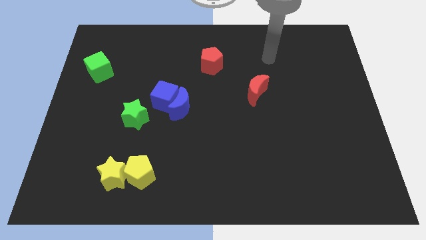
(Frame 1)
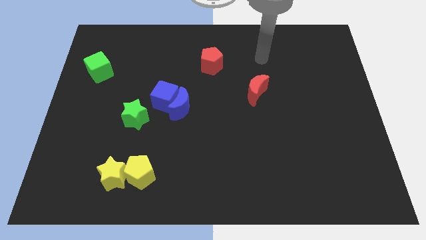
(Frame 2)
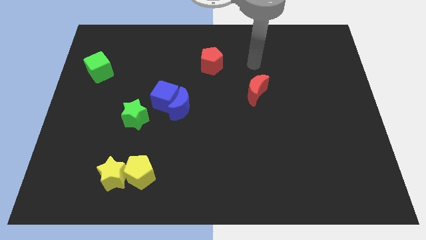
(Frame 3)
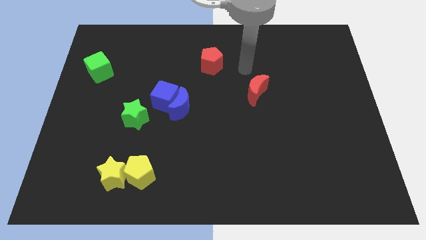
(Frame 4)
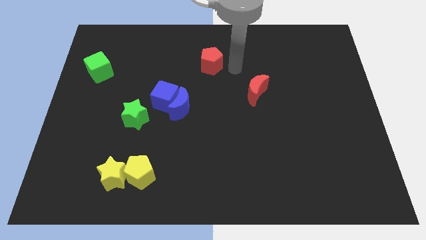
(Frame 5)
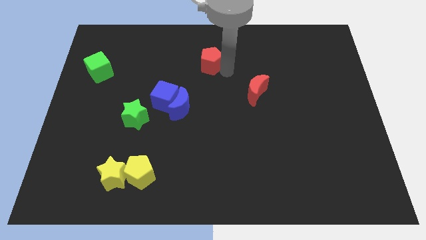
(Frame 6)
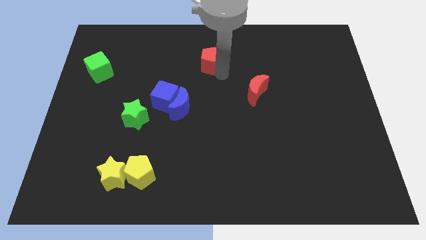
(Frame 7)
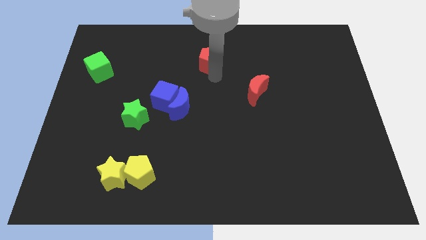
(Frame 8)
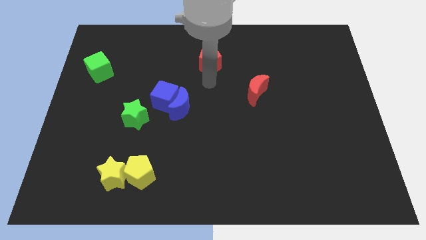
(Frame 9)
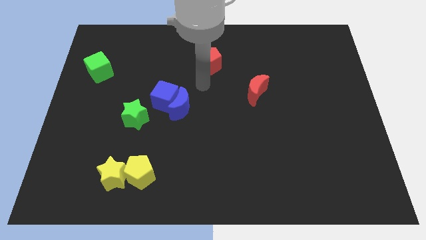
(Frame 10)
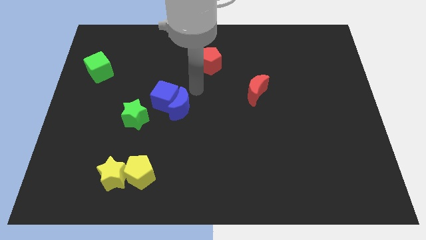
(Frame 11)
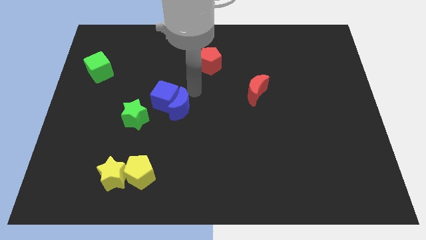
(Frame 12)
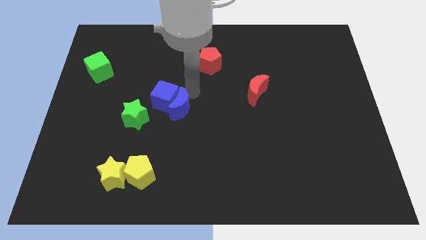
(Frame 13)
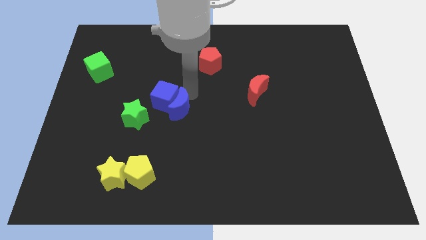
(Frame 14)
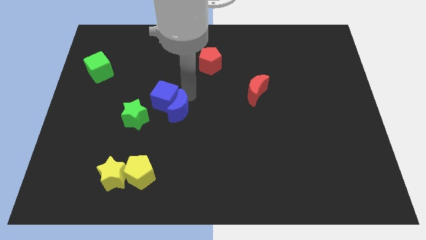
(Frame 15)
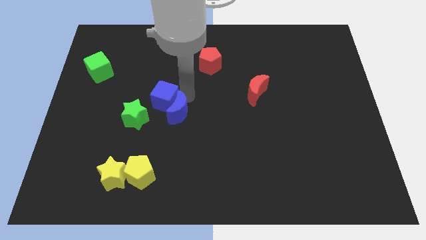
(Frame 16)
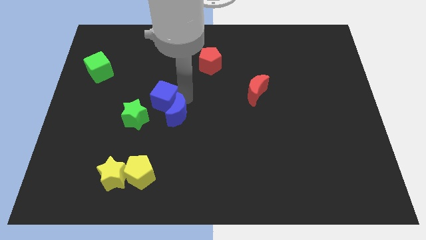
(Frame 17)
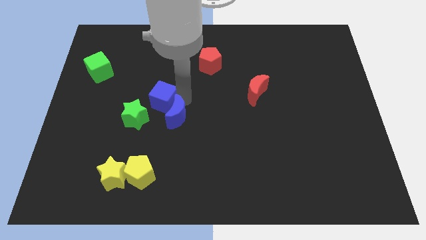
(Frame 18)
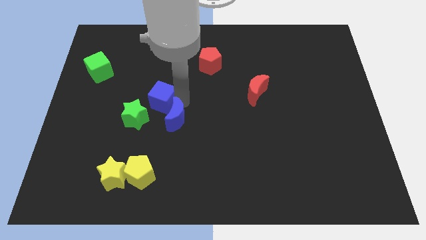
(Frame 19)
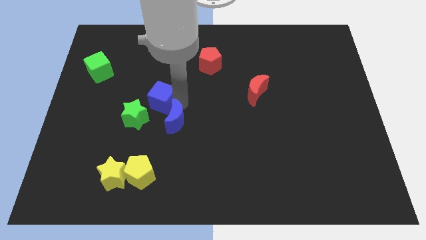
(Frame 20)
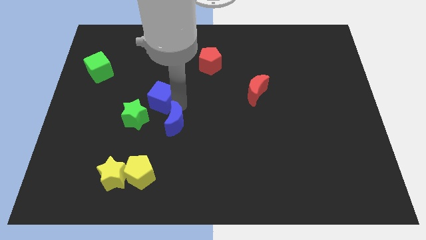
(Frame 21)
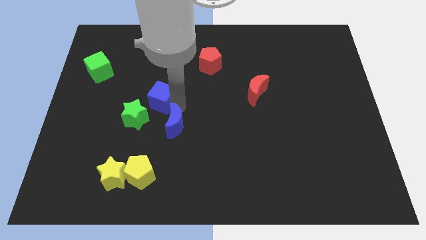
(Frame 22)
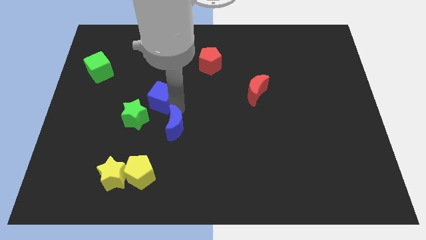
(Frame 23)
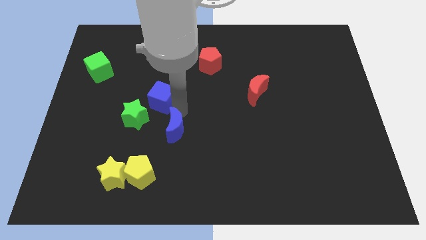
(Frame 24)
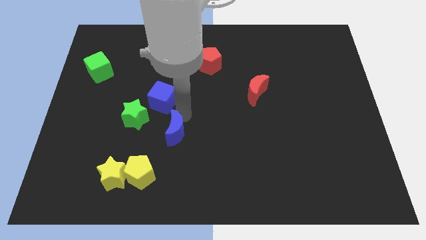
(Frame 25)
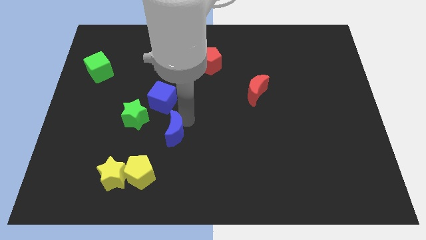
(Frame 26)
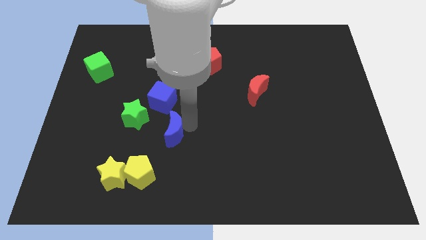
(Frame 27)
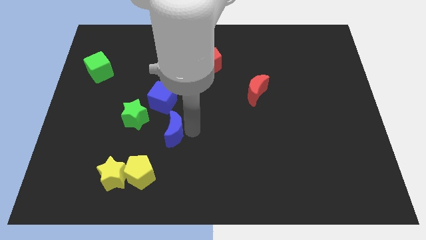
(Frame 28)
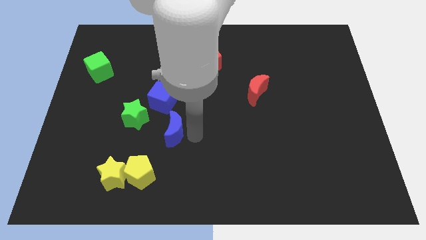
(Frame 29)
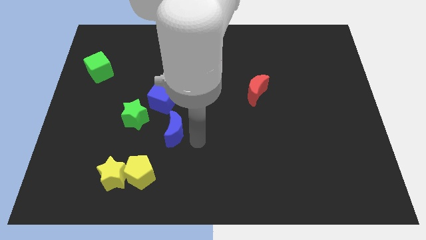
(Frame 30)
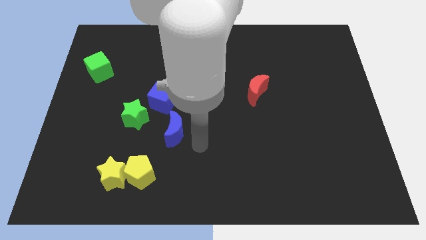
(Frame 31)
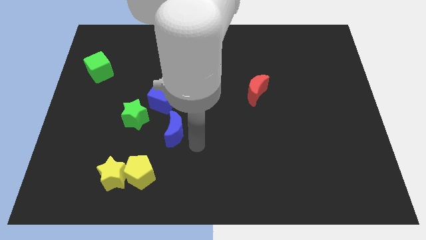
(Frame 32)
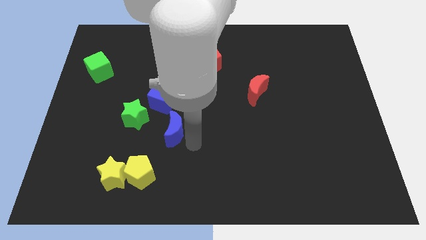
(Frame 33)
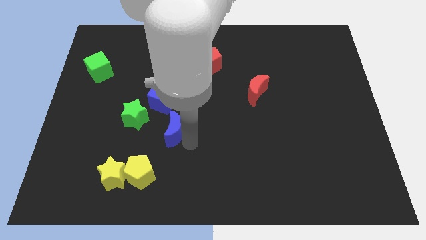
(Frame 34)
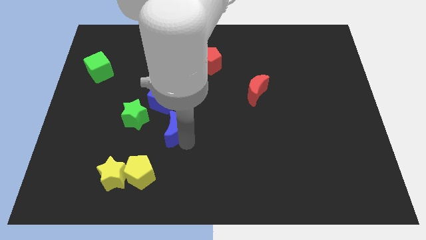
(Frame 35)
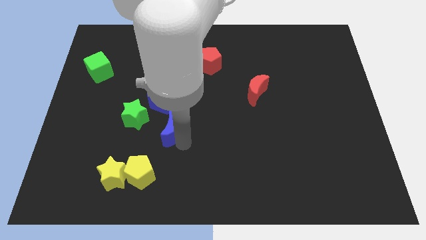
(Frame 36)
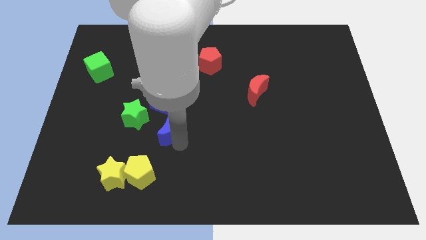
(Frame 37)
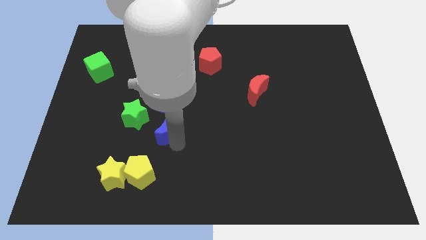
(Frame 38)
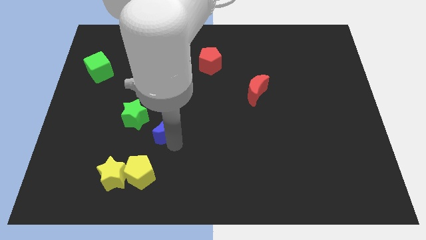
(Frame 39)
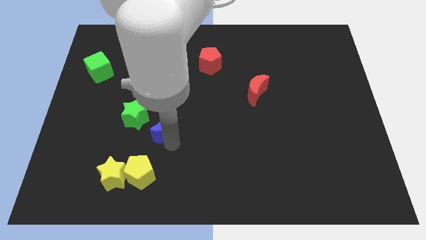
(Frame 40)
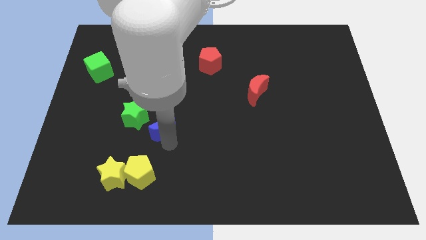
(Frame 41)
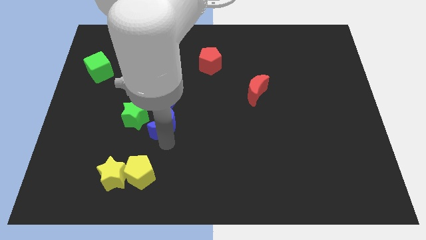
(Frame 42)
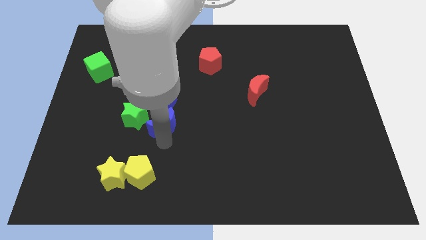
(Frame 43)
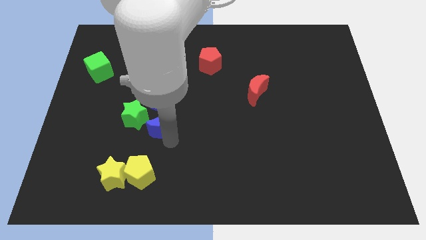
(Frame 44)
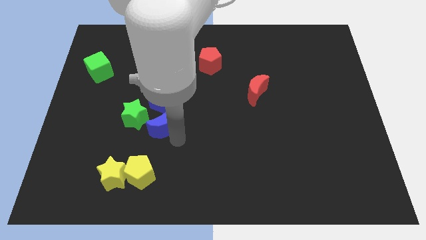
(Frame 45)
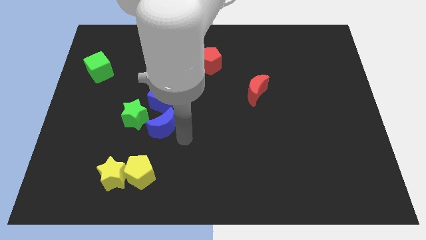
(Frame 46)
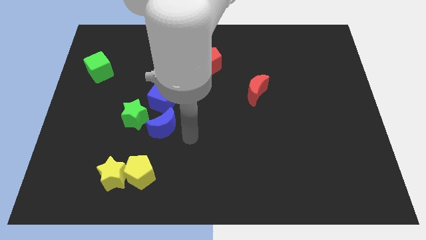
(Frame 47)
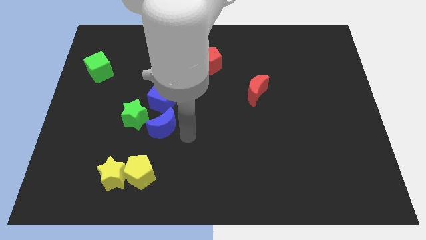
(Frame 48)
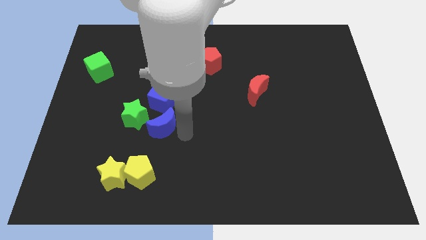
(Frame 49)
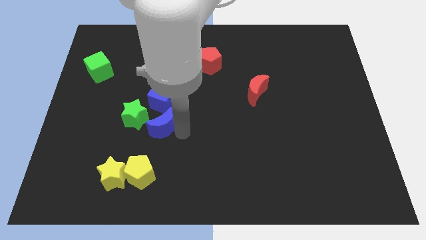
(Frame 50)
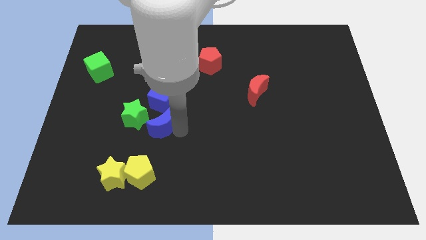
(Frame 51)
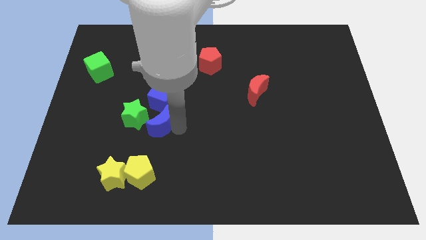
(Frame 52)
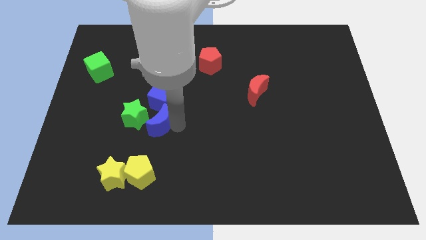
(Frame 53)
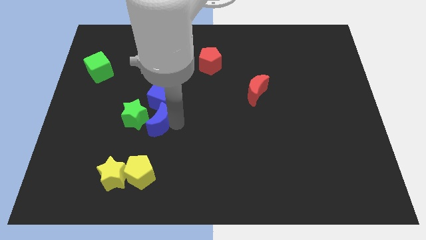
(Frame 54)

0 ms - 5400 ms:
put the blue moon close to the green star

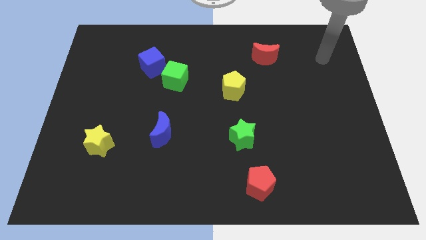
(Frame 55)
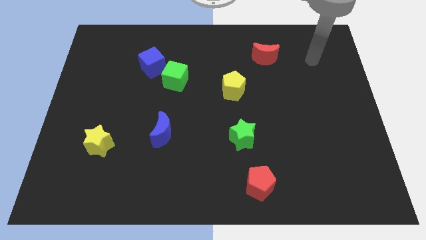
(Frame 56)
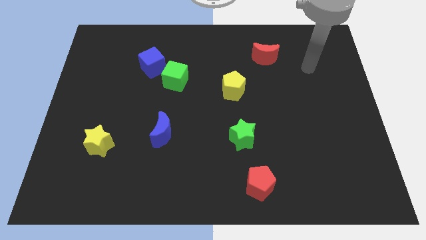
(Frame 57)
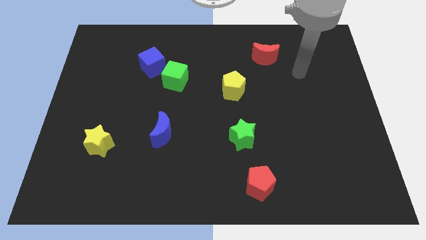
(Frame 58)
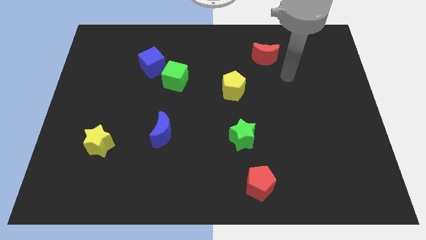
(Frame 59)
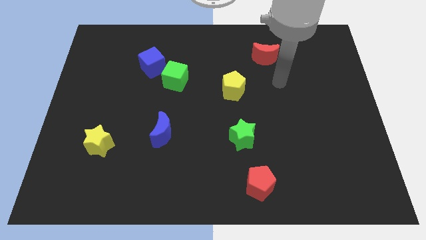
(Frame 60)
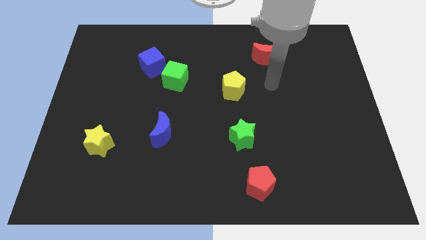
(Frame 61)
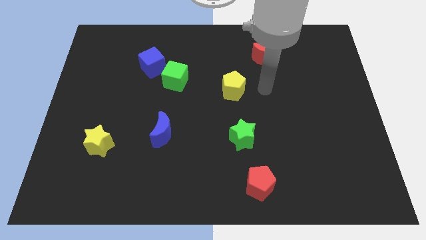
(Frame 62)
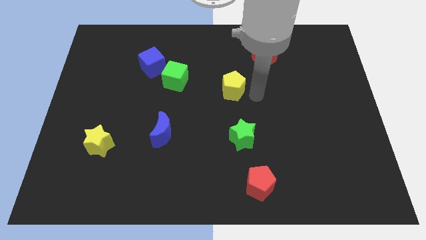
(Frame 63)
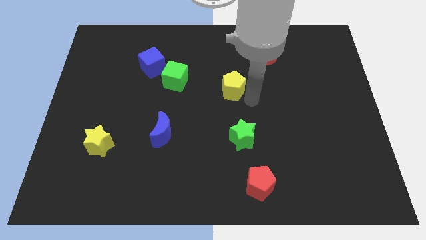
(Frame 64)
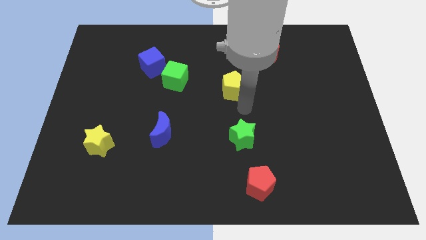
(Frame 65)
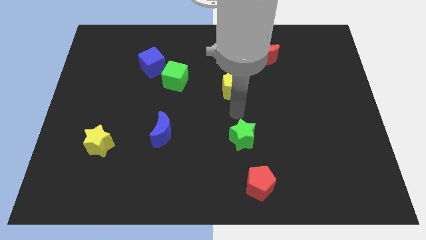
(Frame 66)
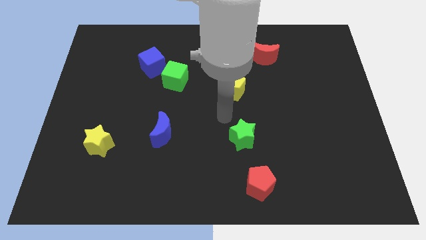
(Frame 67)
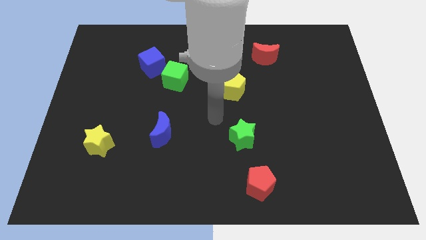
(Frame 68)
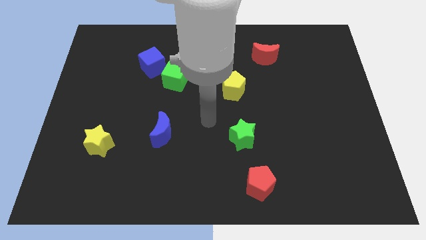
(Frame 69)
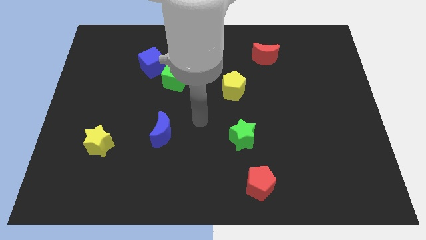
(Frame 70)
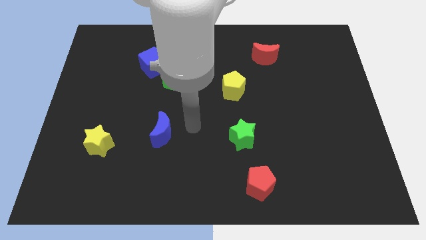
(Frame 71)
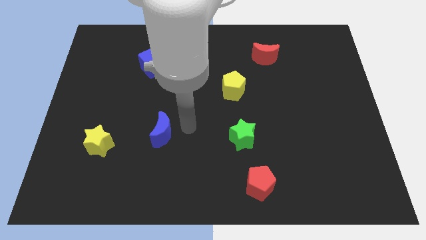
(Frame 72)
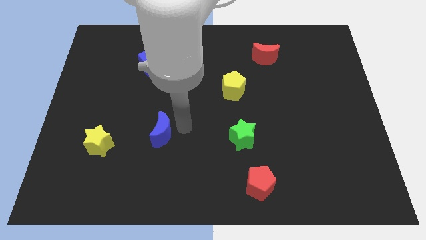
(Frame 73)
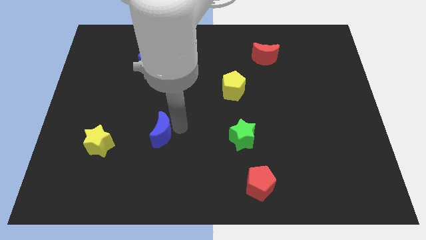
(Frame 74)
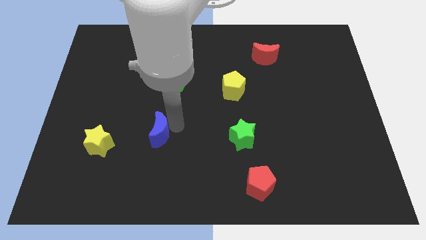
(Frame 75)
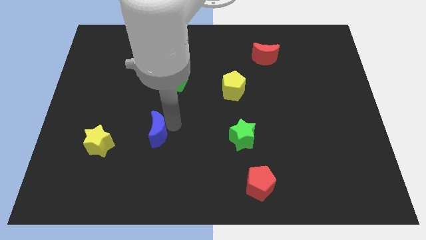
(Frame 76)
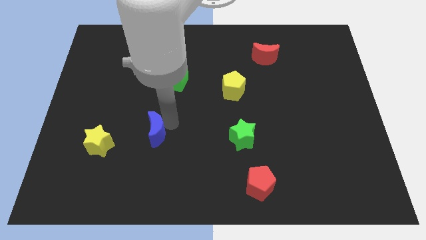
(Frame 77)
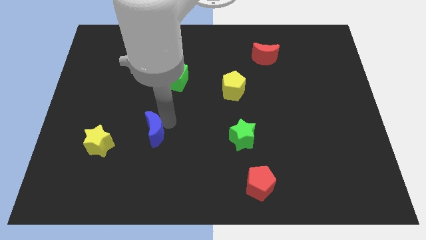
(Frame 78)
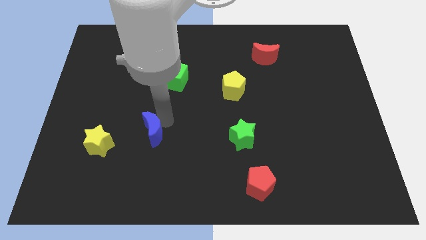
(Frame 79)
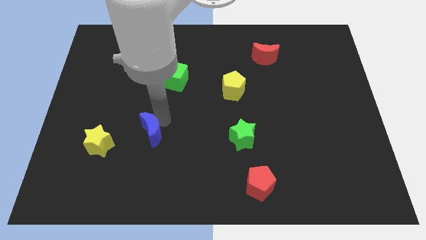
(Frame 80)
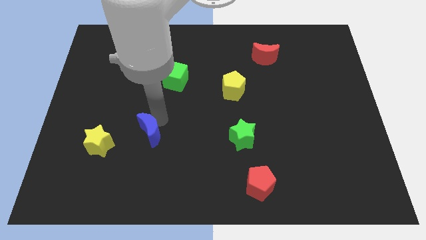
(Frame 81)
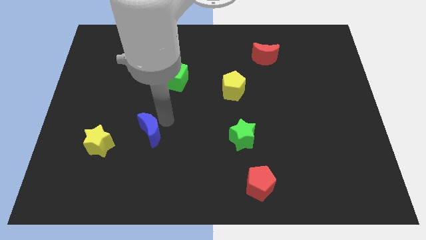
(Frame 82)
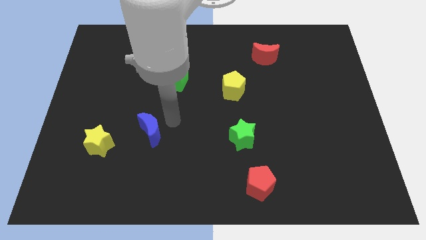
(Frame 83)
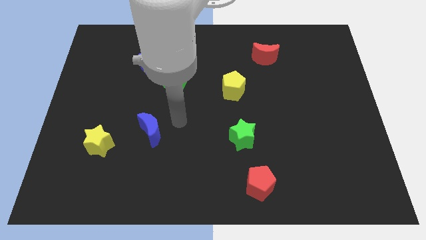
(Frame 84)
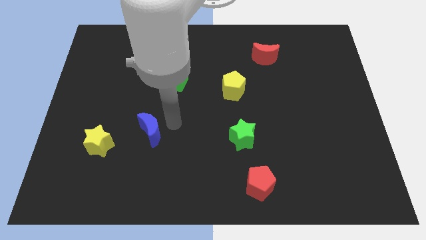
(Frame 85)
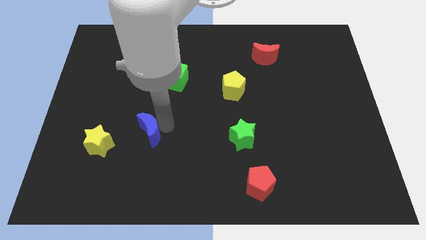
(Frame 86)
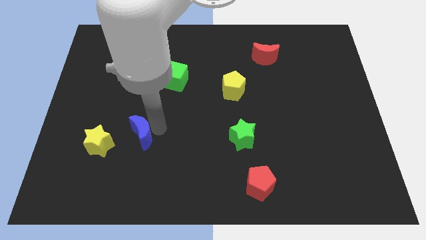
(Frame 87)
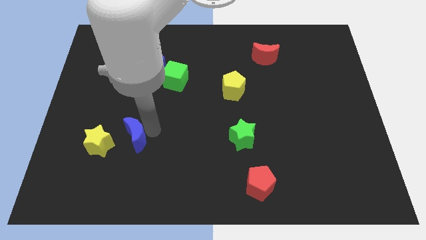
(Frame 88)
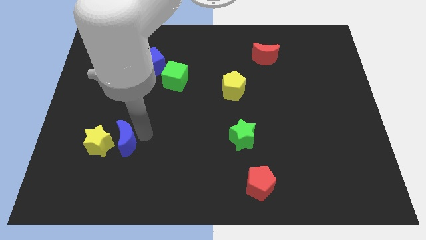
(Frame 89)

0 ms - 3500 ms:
slide the blue moon close to the yellow star
